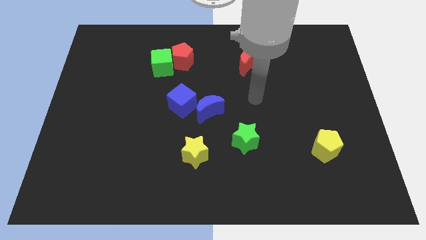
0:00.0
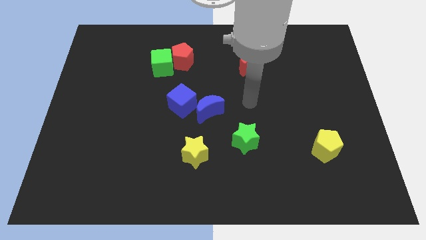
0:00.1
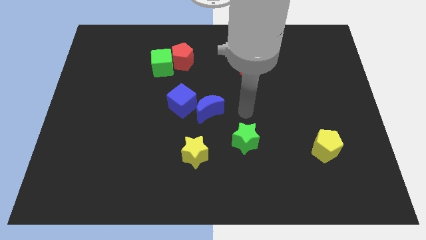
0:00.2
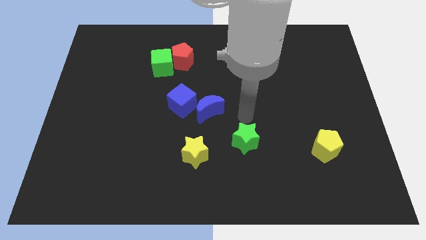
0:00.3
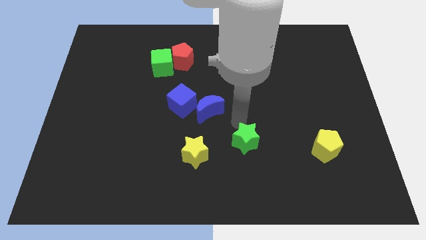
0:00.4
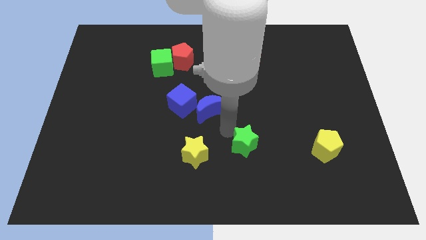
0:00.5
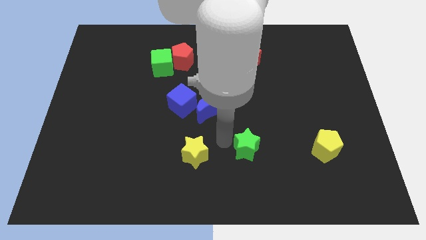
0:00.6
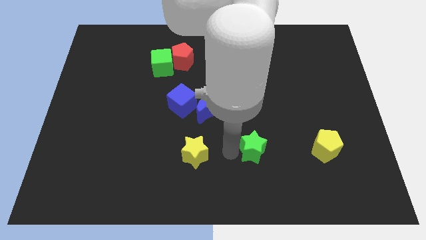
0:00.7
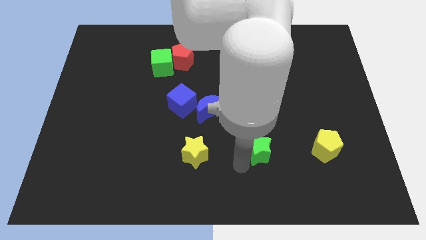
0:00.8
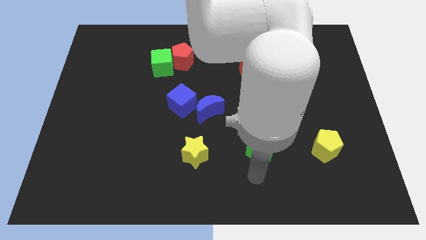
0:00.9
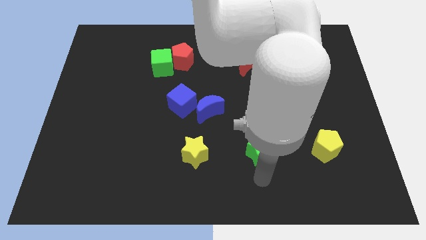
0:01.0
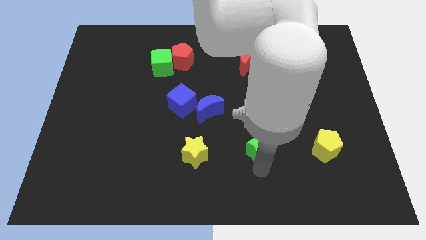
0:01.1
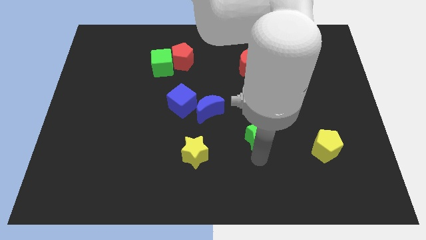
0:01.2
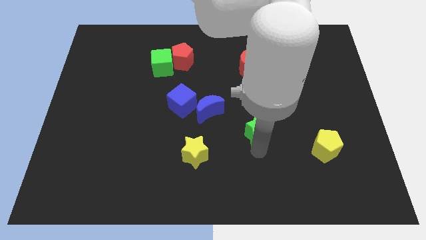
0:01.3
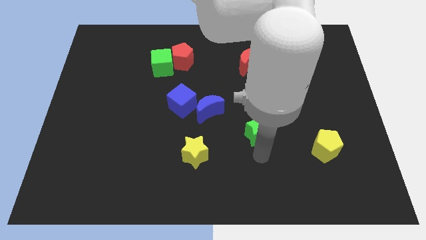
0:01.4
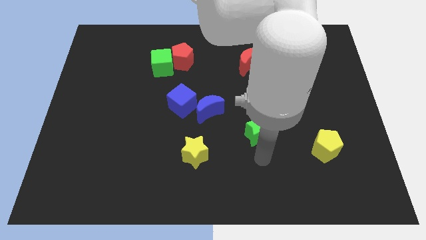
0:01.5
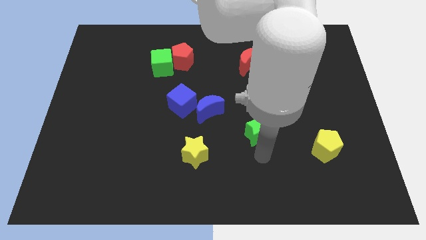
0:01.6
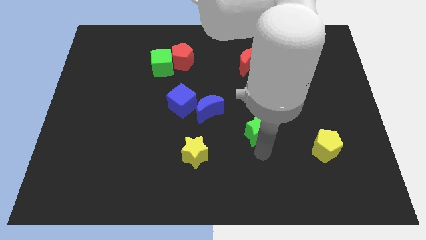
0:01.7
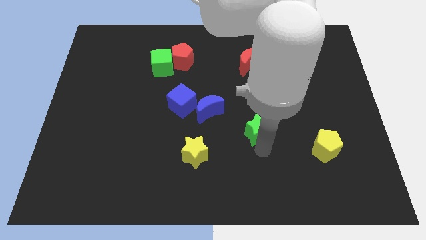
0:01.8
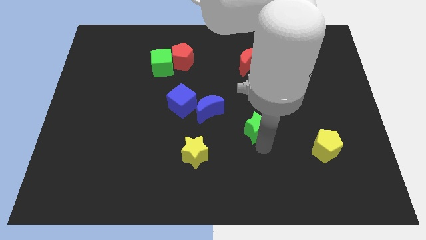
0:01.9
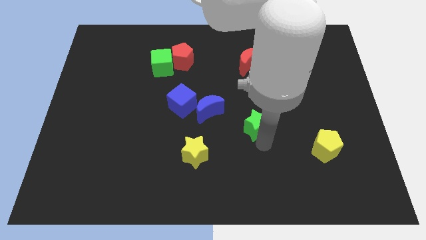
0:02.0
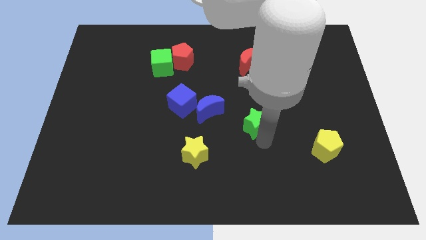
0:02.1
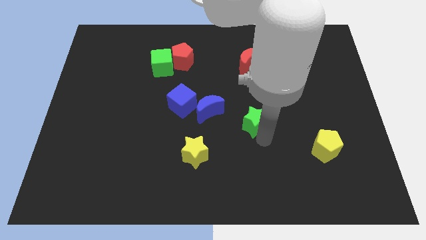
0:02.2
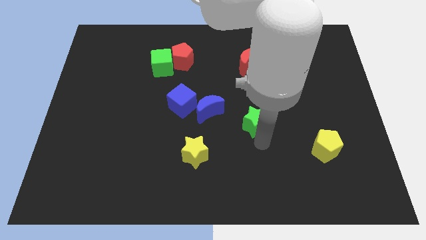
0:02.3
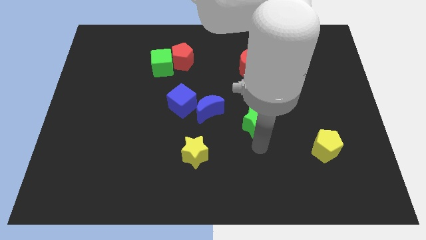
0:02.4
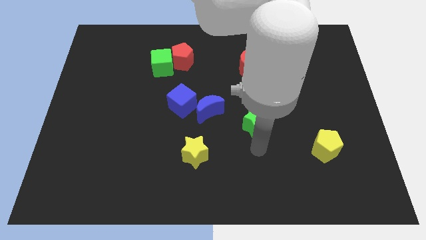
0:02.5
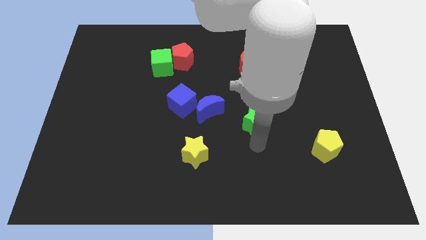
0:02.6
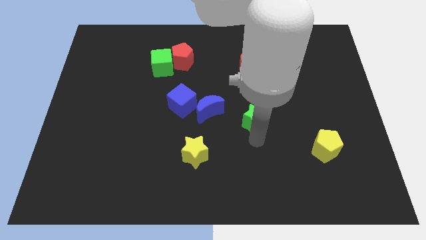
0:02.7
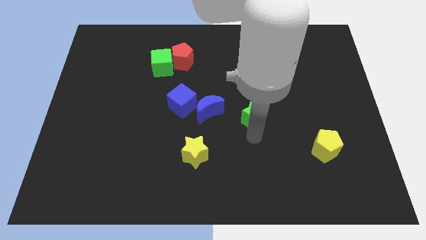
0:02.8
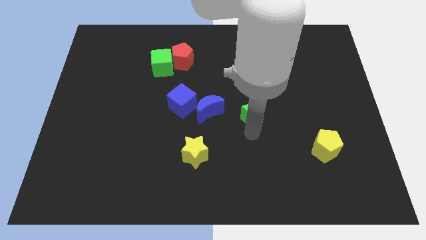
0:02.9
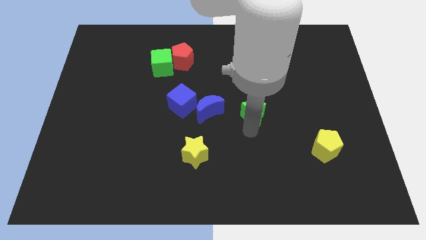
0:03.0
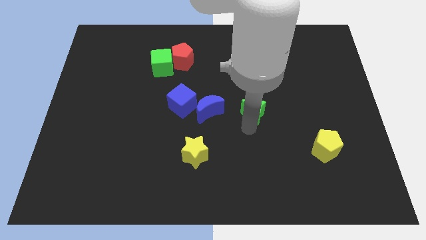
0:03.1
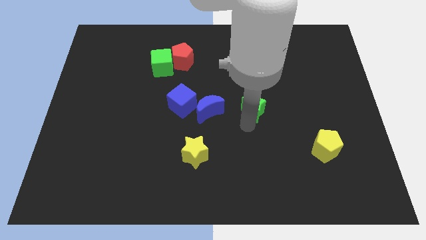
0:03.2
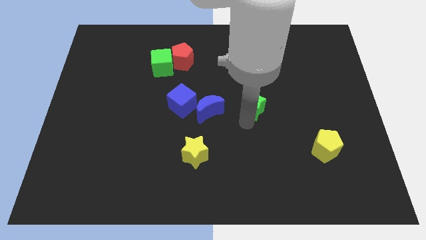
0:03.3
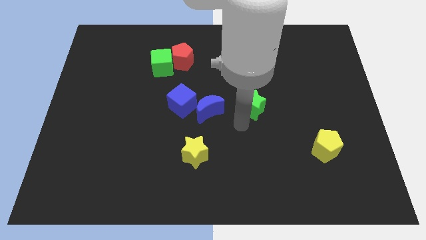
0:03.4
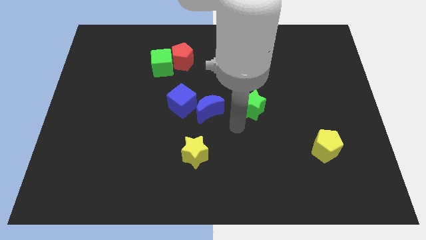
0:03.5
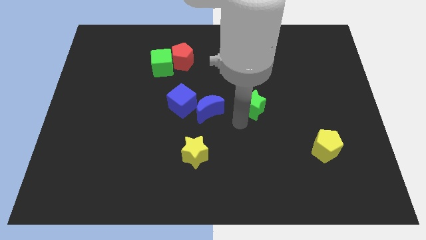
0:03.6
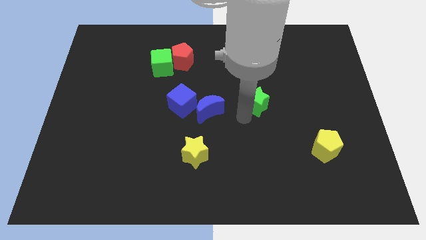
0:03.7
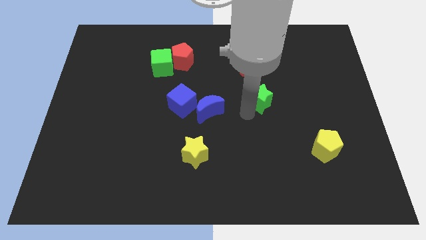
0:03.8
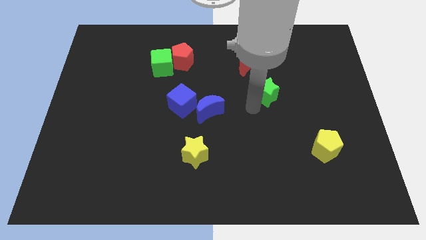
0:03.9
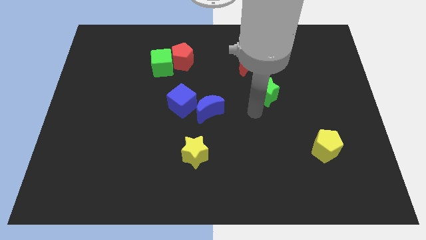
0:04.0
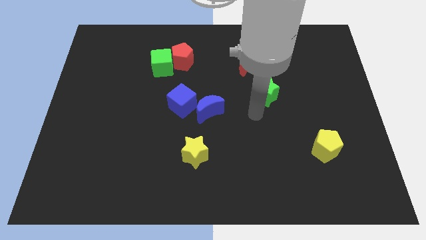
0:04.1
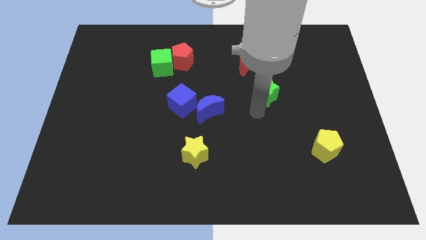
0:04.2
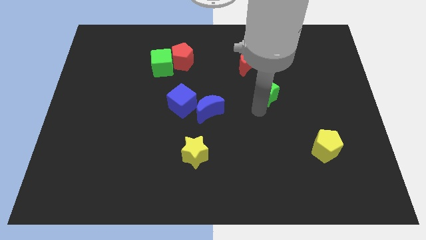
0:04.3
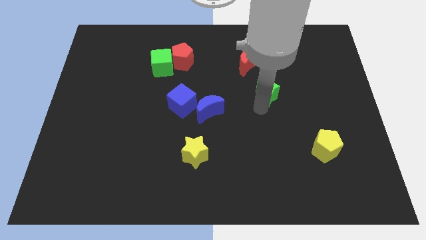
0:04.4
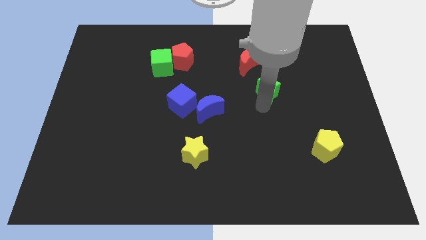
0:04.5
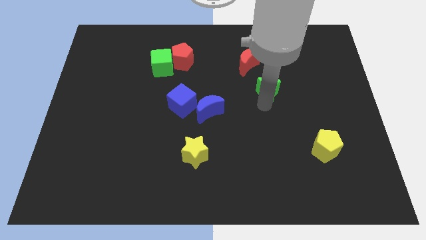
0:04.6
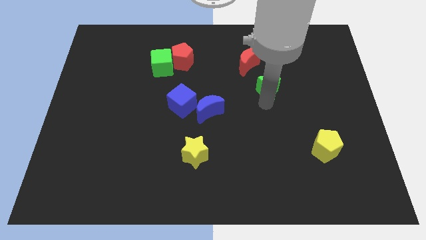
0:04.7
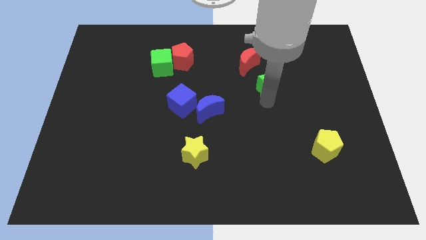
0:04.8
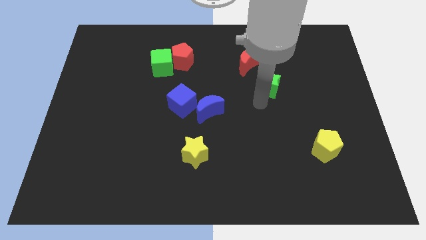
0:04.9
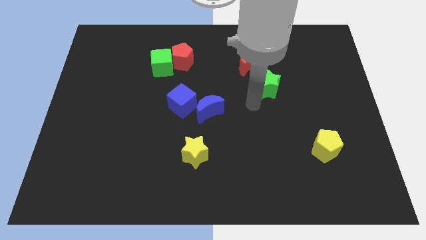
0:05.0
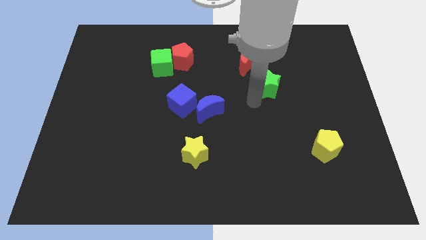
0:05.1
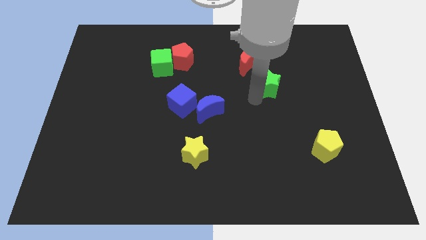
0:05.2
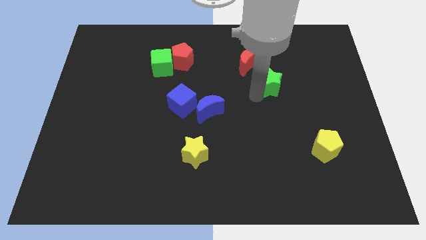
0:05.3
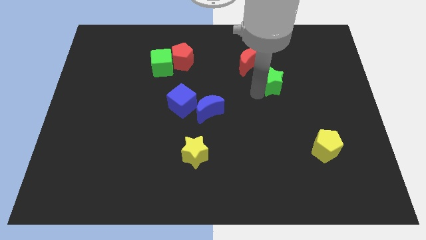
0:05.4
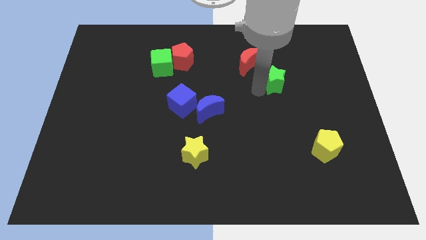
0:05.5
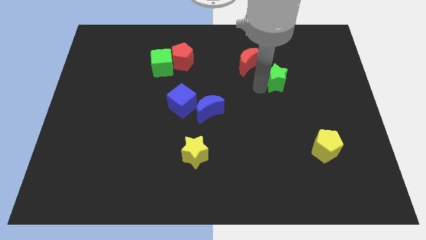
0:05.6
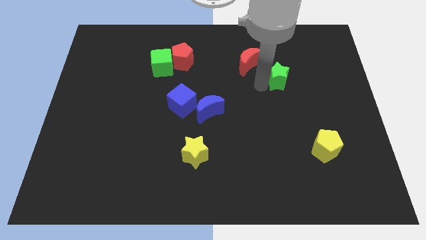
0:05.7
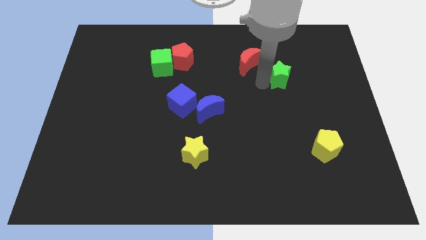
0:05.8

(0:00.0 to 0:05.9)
slide the green star right of the red moon

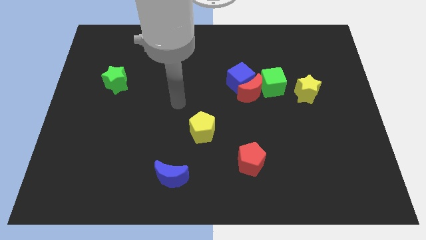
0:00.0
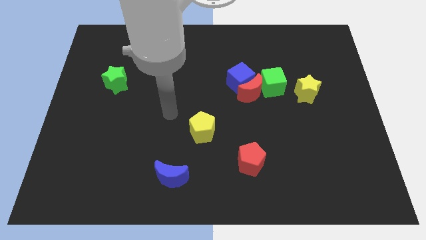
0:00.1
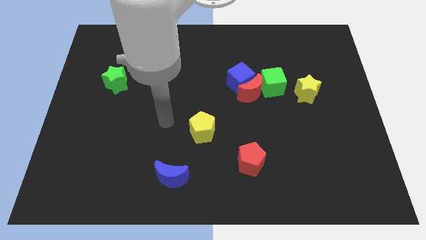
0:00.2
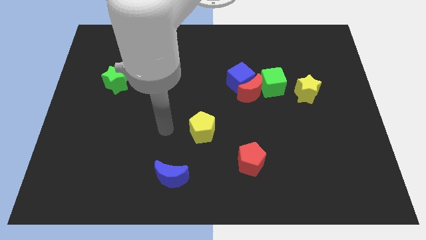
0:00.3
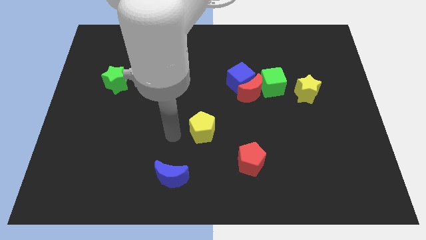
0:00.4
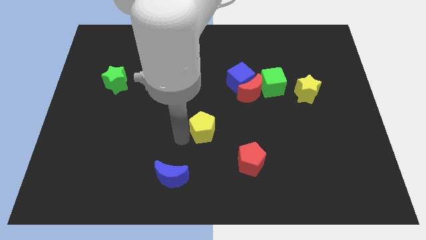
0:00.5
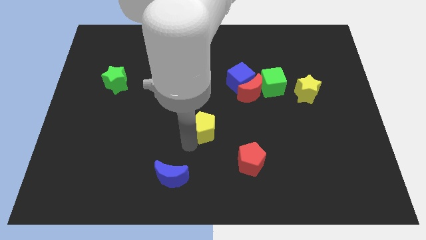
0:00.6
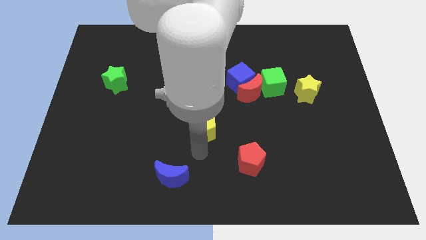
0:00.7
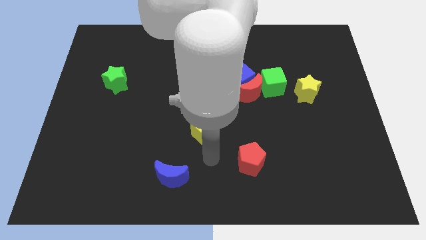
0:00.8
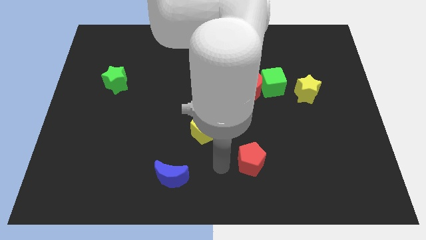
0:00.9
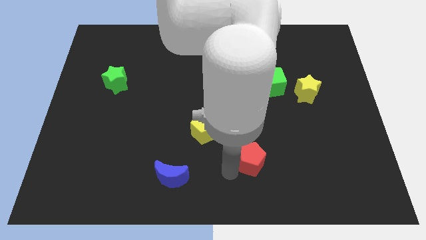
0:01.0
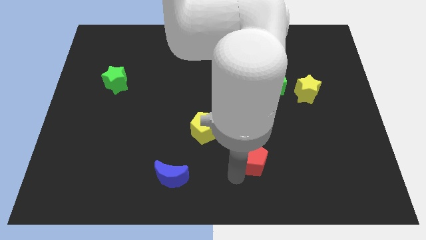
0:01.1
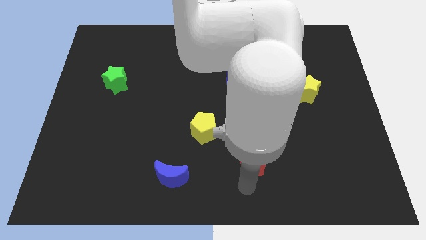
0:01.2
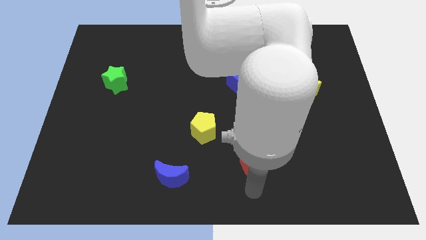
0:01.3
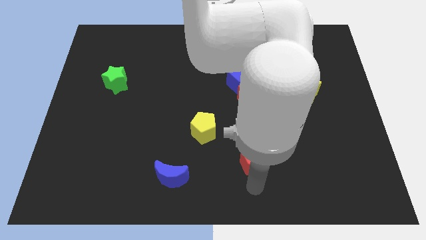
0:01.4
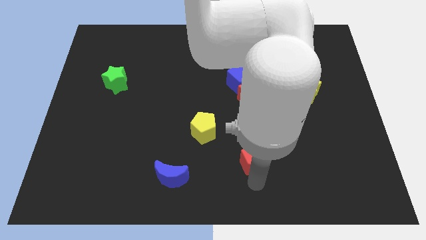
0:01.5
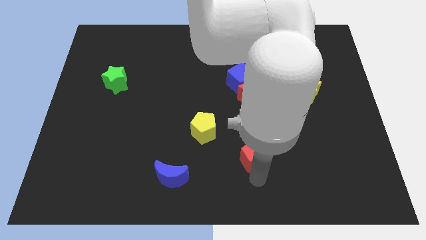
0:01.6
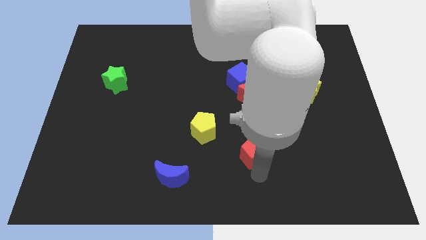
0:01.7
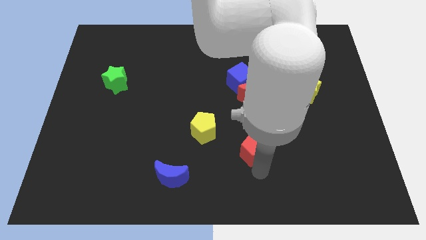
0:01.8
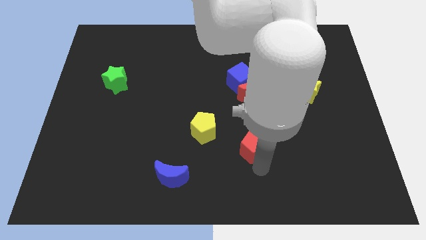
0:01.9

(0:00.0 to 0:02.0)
slide the red pentagon to the bottom of the red moon
